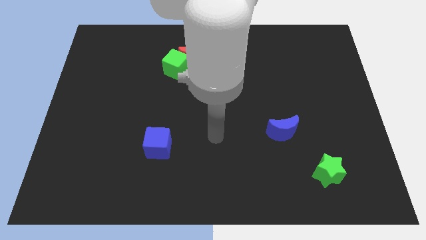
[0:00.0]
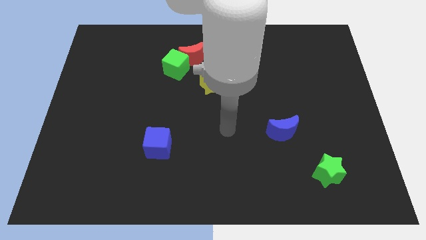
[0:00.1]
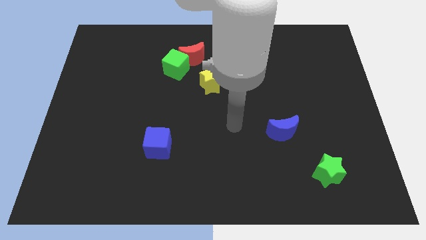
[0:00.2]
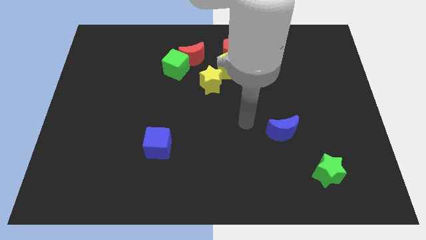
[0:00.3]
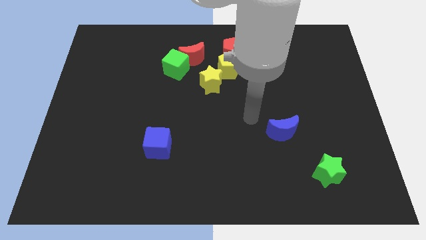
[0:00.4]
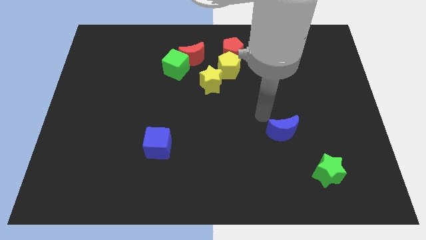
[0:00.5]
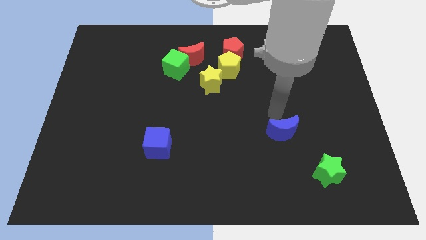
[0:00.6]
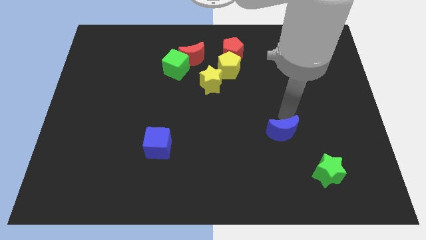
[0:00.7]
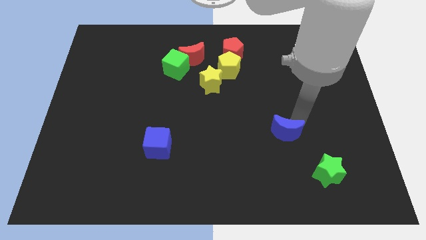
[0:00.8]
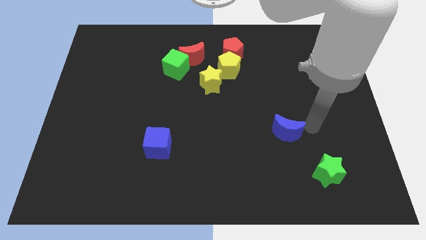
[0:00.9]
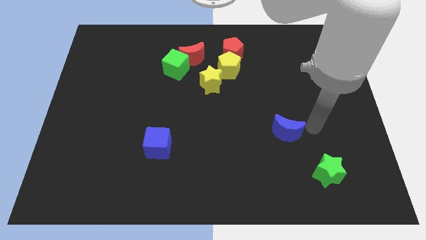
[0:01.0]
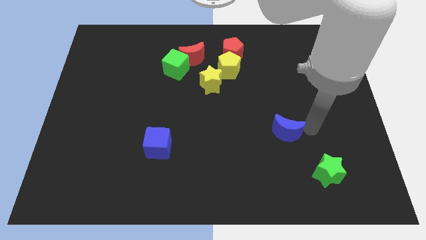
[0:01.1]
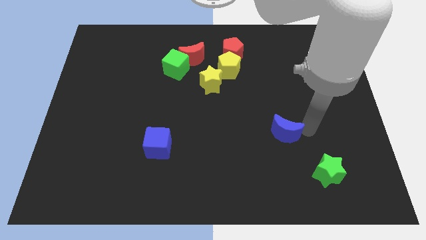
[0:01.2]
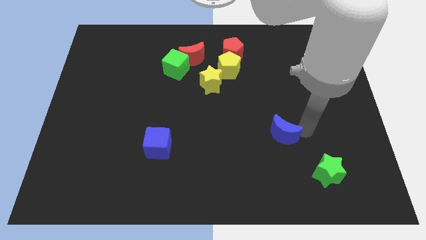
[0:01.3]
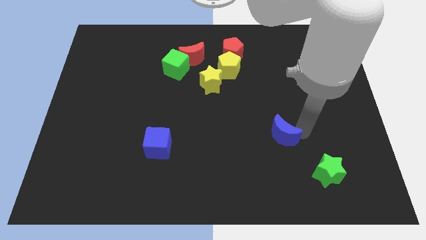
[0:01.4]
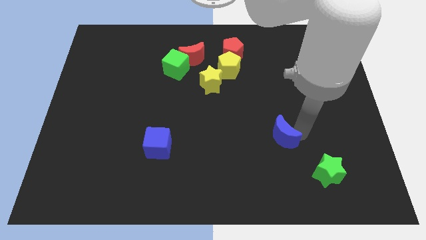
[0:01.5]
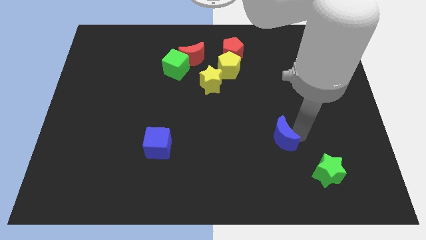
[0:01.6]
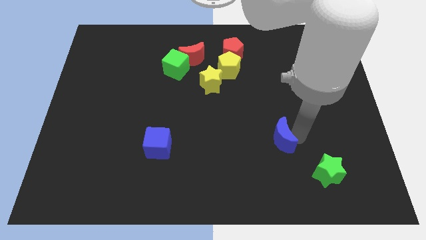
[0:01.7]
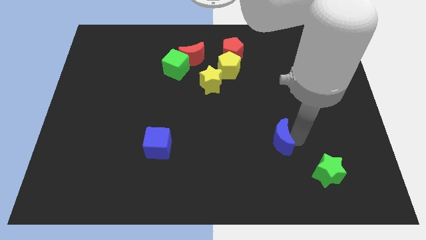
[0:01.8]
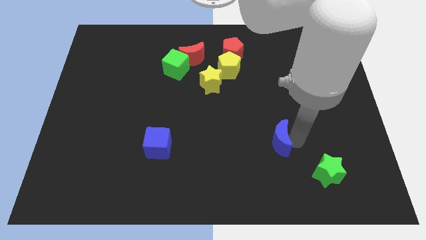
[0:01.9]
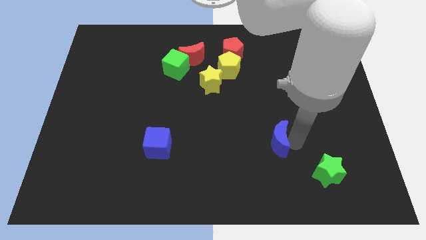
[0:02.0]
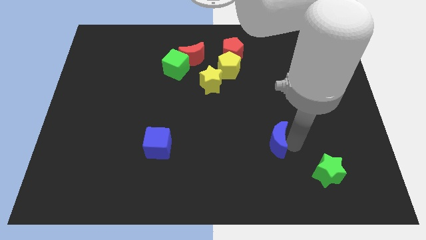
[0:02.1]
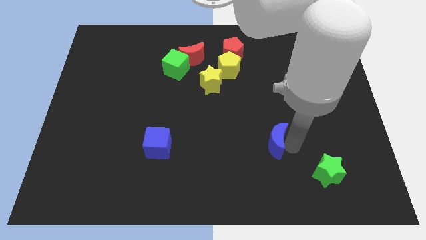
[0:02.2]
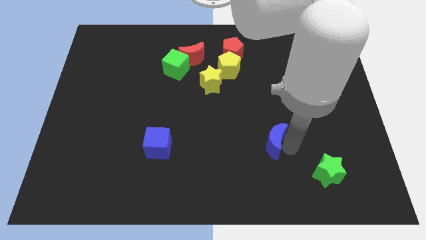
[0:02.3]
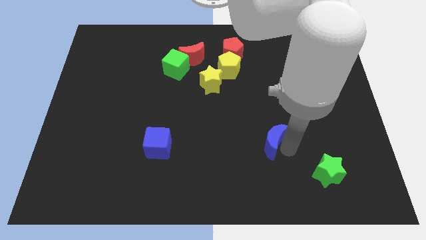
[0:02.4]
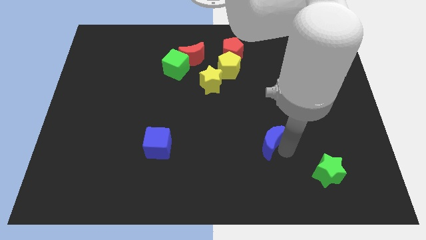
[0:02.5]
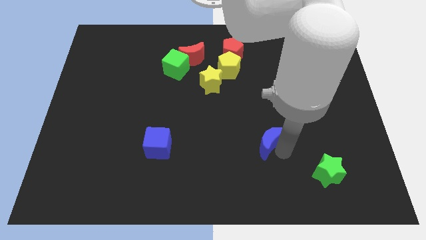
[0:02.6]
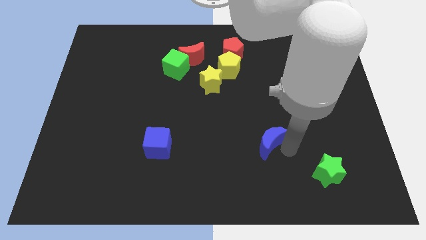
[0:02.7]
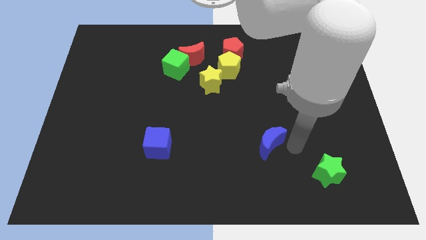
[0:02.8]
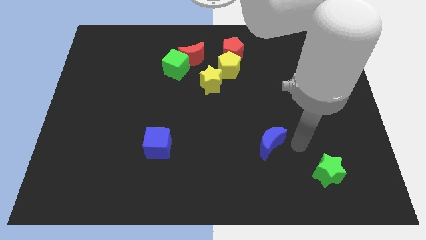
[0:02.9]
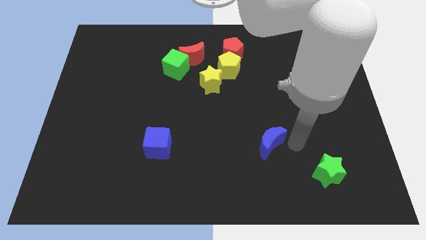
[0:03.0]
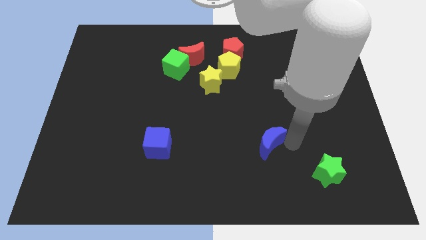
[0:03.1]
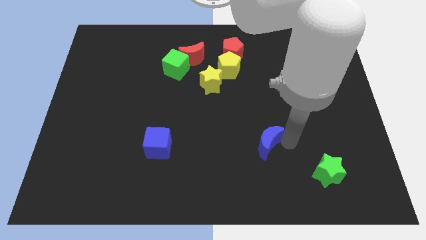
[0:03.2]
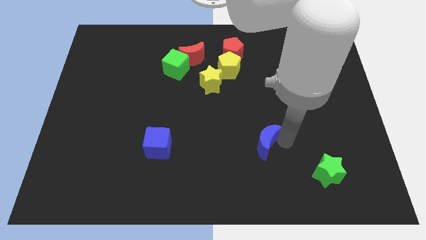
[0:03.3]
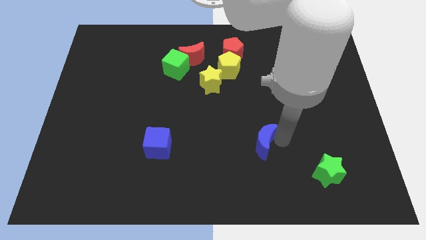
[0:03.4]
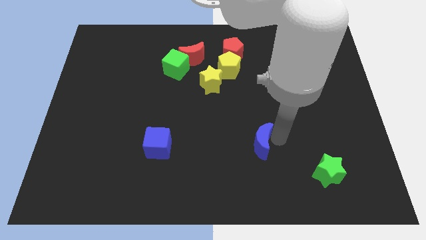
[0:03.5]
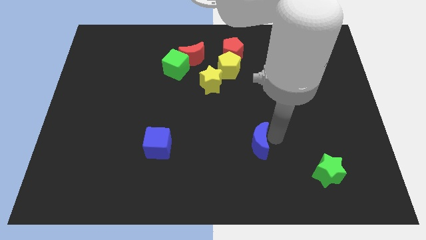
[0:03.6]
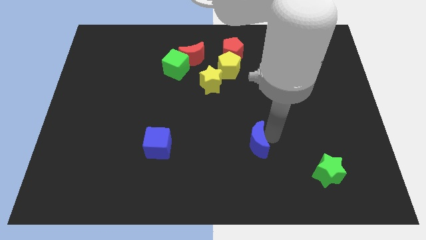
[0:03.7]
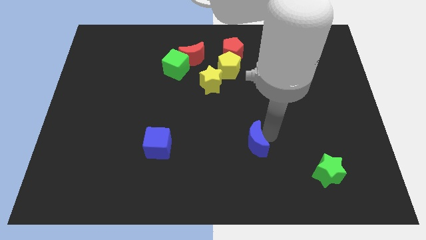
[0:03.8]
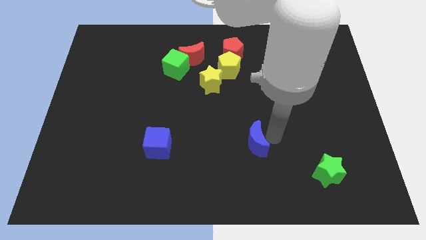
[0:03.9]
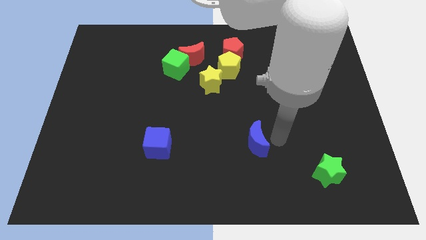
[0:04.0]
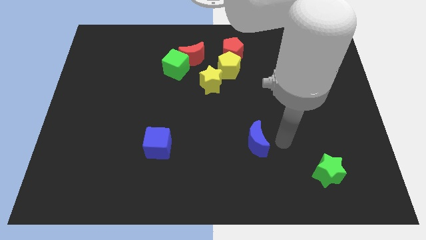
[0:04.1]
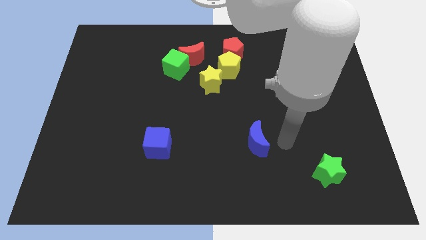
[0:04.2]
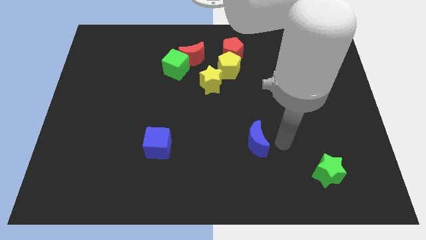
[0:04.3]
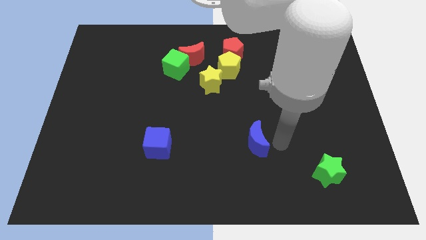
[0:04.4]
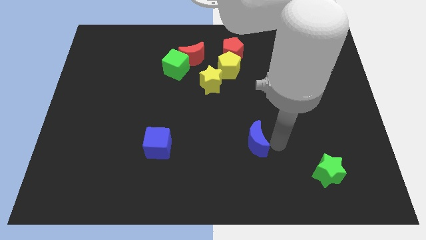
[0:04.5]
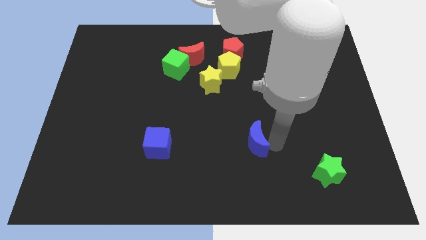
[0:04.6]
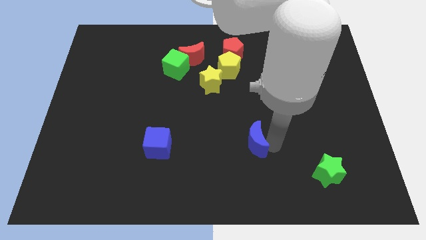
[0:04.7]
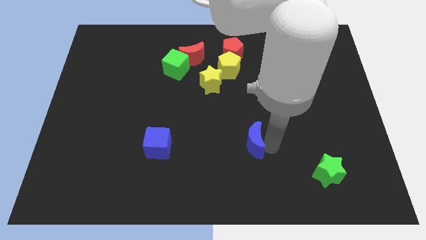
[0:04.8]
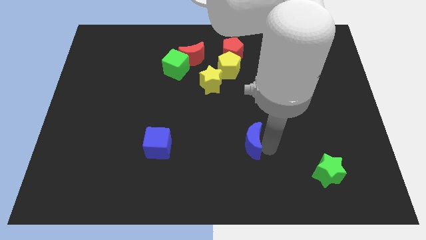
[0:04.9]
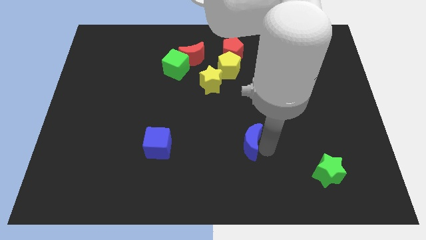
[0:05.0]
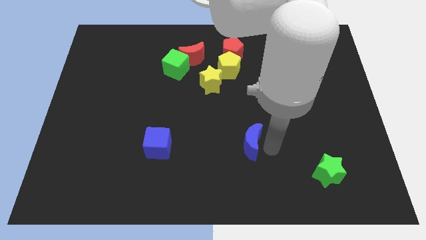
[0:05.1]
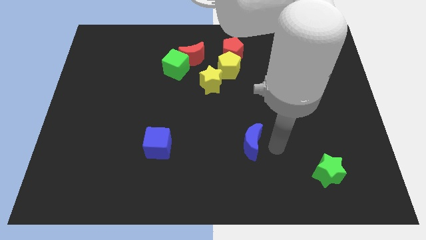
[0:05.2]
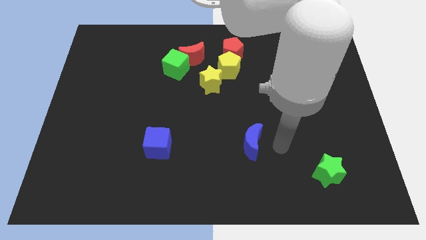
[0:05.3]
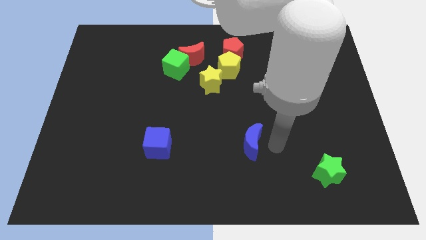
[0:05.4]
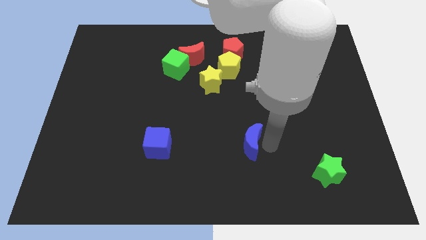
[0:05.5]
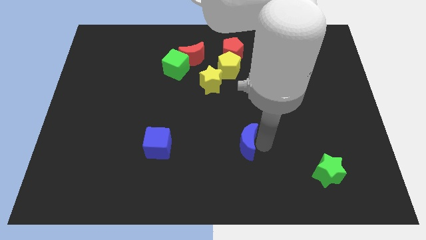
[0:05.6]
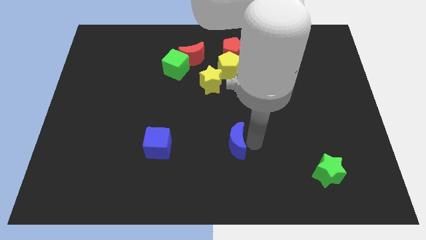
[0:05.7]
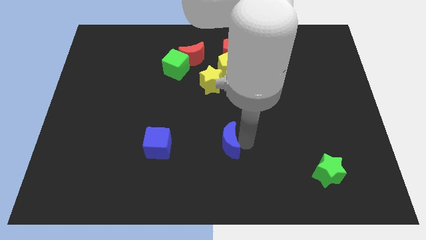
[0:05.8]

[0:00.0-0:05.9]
push the blue moon right of the blue cube
